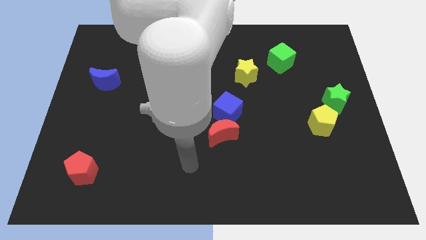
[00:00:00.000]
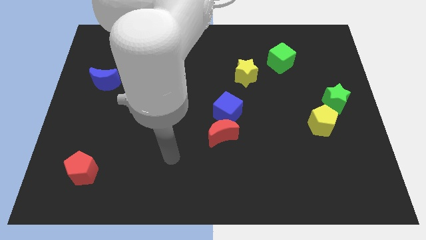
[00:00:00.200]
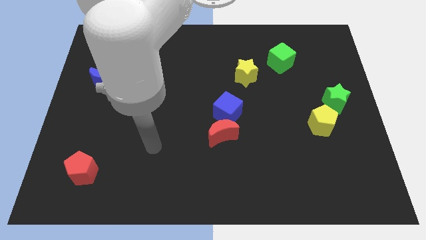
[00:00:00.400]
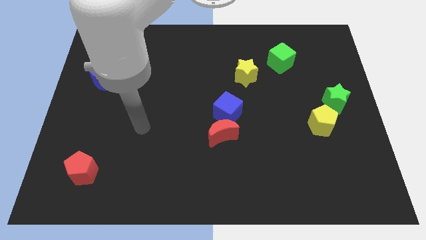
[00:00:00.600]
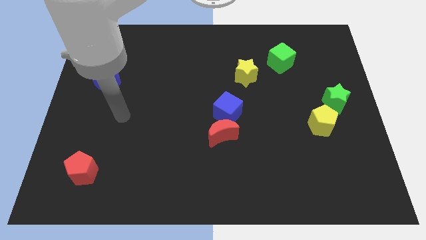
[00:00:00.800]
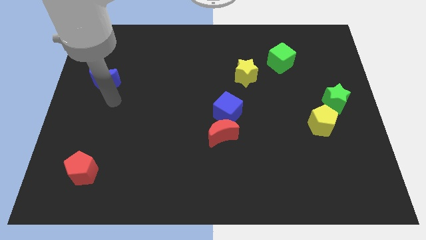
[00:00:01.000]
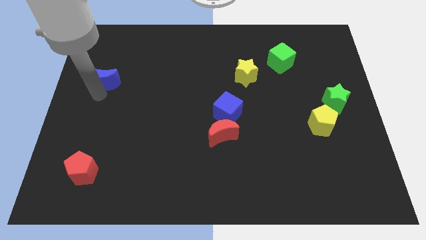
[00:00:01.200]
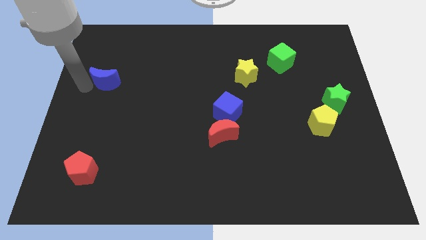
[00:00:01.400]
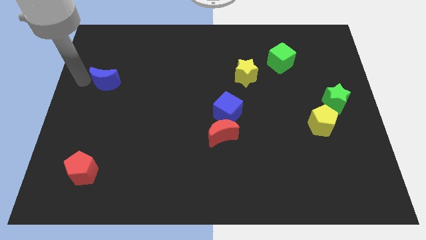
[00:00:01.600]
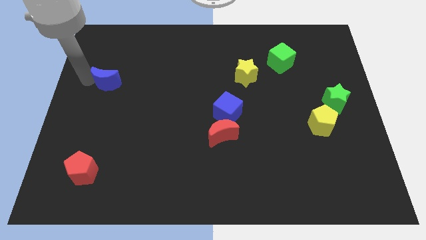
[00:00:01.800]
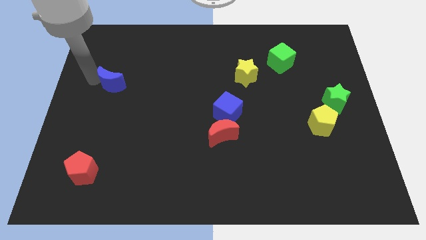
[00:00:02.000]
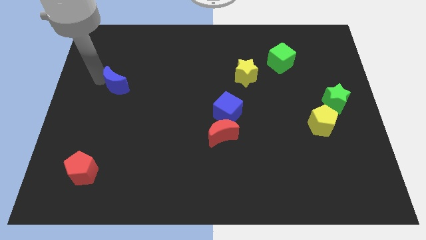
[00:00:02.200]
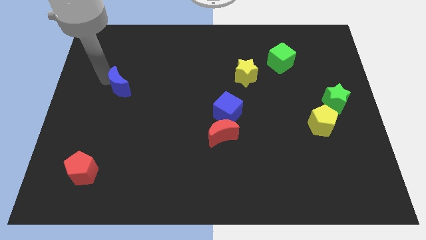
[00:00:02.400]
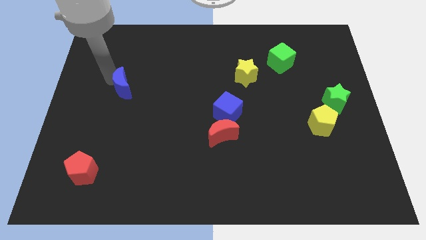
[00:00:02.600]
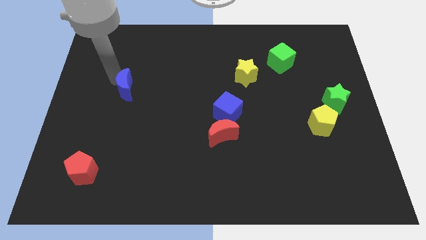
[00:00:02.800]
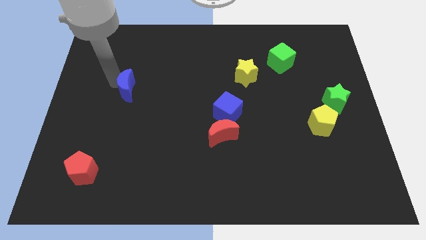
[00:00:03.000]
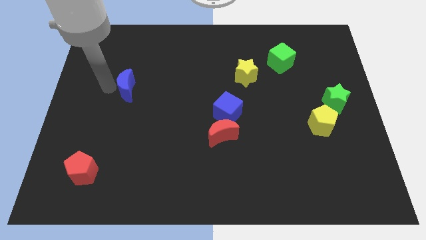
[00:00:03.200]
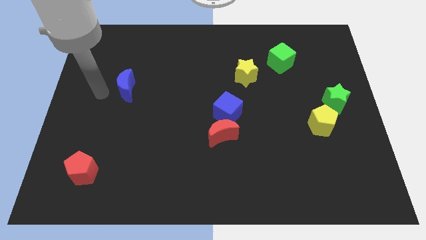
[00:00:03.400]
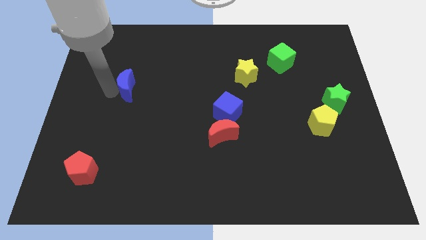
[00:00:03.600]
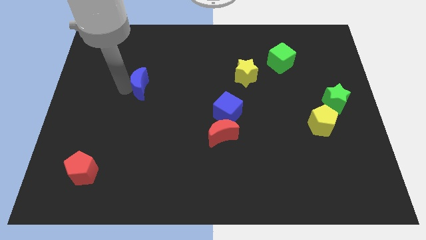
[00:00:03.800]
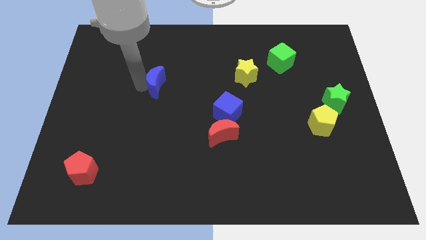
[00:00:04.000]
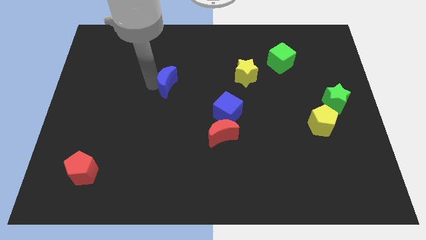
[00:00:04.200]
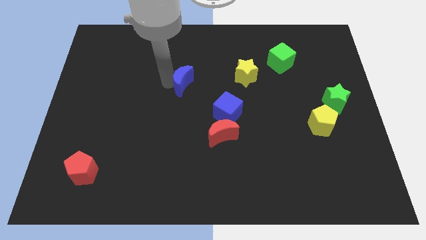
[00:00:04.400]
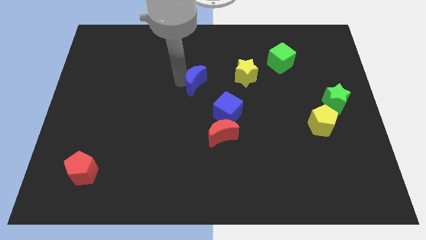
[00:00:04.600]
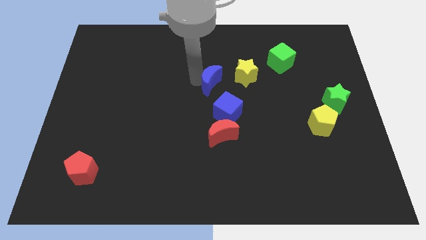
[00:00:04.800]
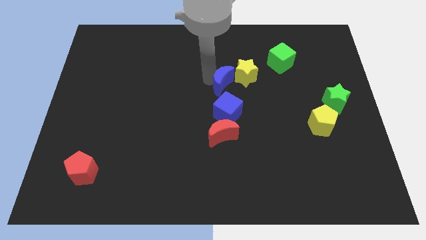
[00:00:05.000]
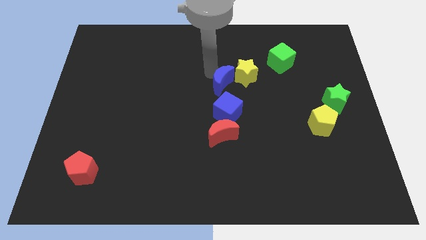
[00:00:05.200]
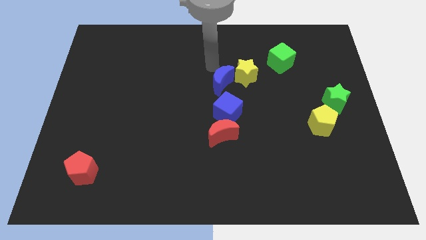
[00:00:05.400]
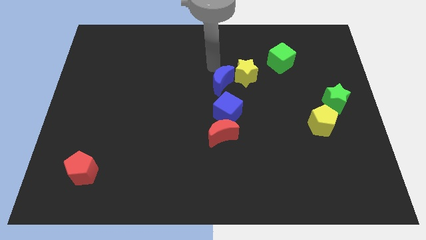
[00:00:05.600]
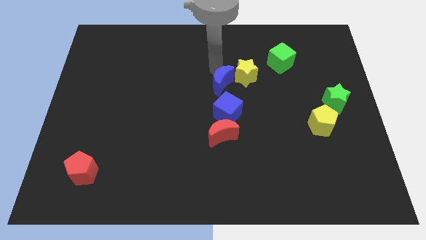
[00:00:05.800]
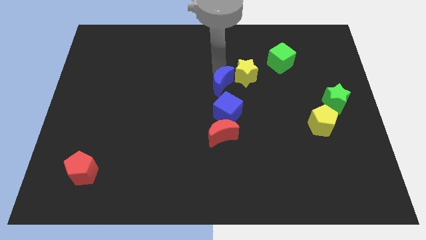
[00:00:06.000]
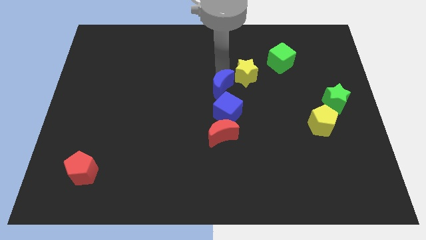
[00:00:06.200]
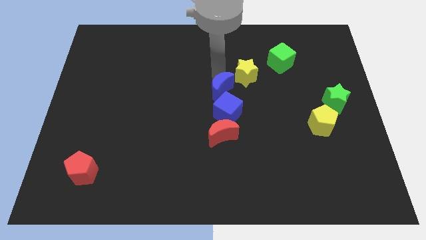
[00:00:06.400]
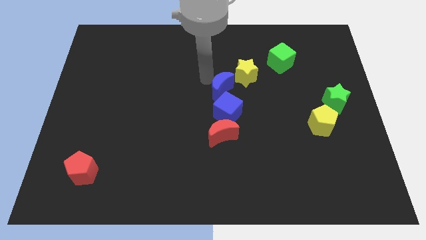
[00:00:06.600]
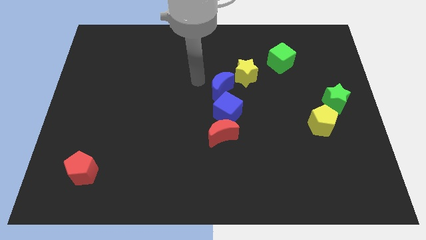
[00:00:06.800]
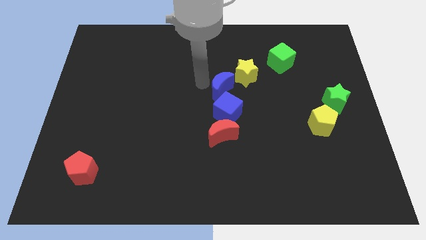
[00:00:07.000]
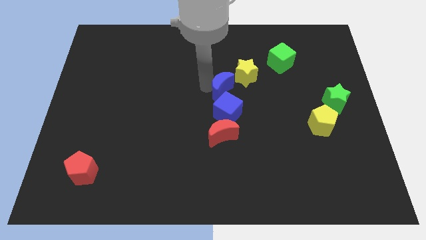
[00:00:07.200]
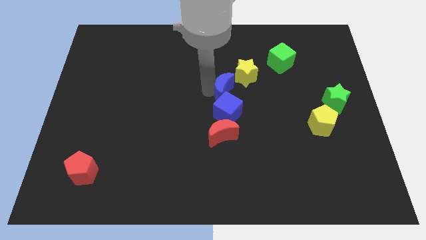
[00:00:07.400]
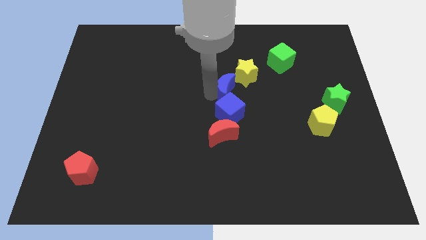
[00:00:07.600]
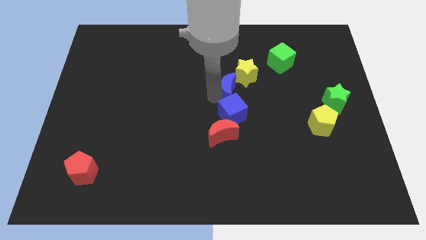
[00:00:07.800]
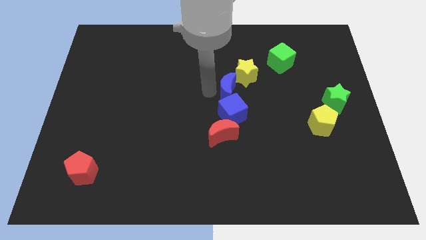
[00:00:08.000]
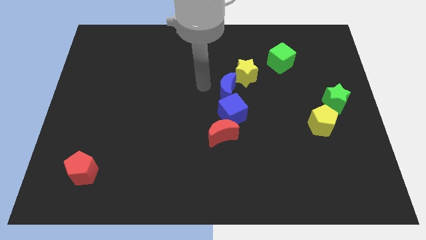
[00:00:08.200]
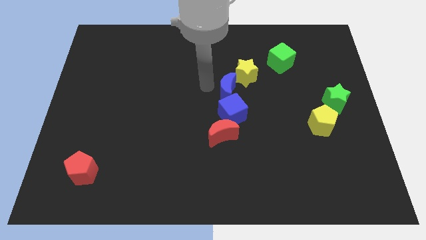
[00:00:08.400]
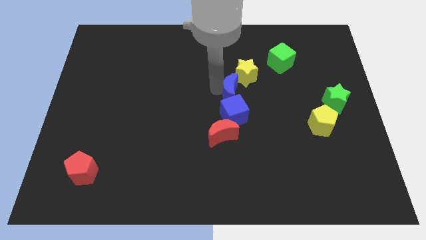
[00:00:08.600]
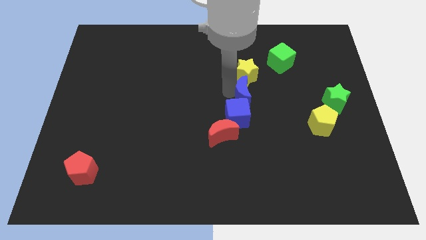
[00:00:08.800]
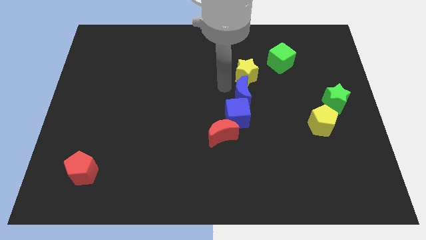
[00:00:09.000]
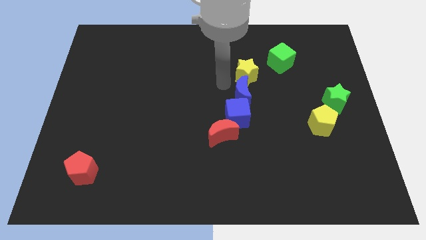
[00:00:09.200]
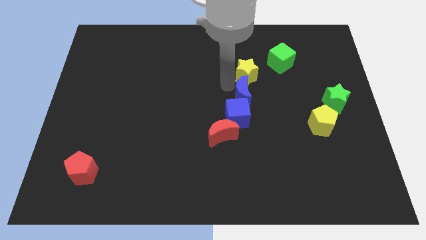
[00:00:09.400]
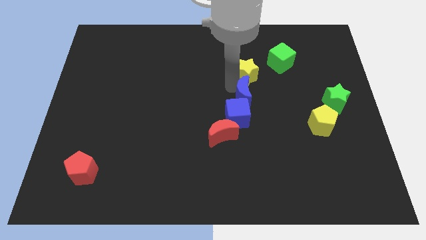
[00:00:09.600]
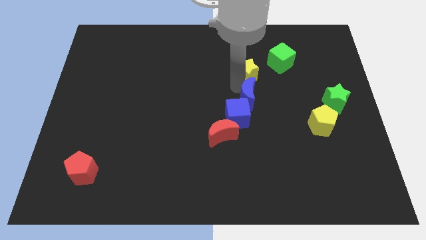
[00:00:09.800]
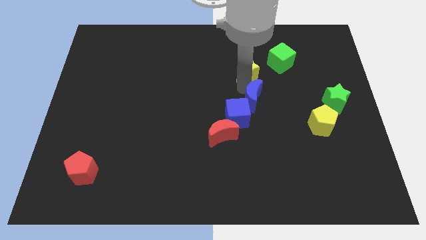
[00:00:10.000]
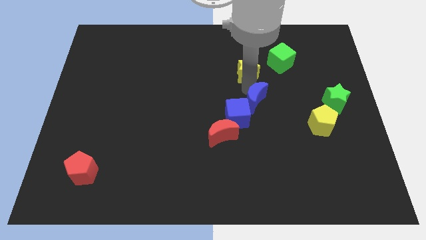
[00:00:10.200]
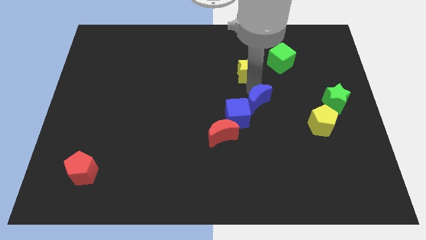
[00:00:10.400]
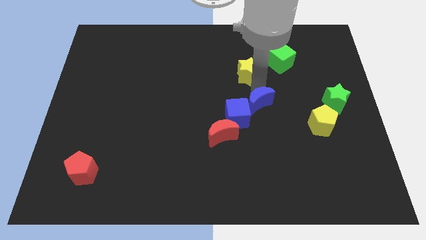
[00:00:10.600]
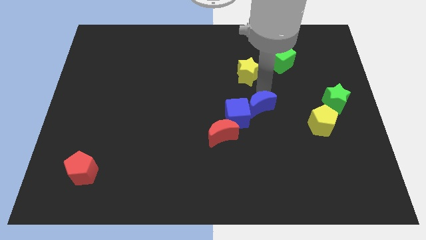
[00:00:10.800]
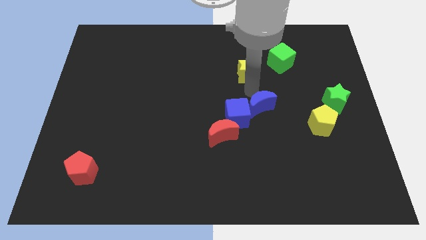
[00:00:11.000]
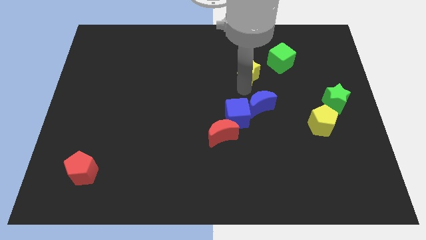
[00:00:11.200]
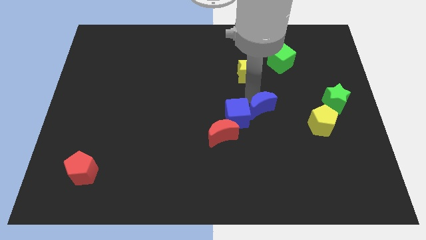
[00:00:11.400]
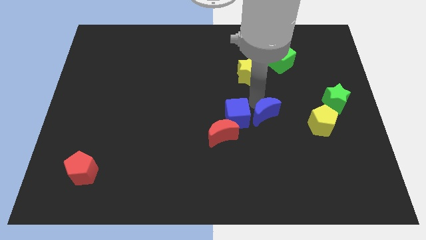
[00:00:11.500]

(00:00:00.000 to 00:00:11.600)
slide the blue moon to the left side of the yellow pentagon

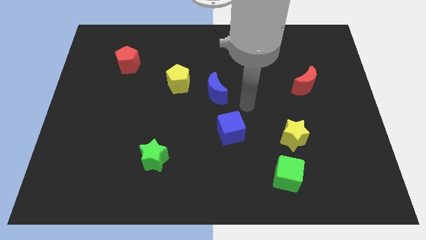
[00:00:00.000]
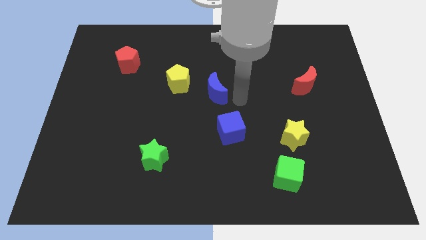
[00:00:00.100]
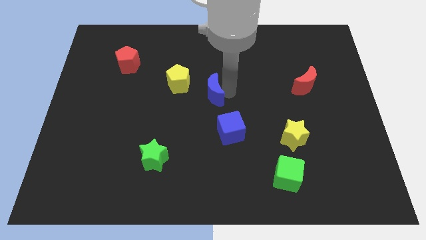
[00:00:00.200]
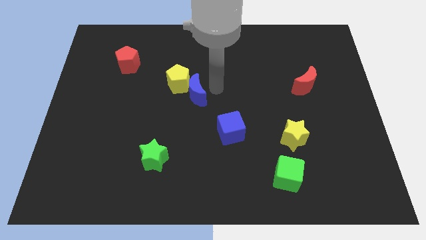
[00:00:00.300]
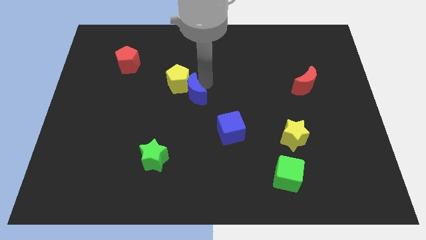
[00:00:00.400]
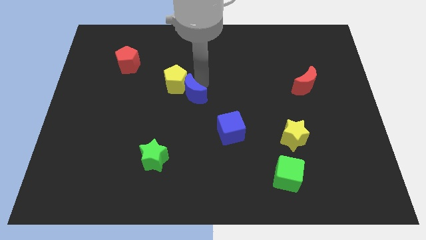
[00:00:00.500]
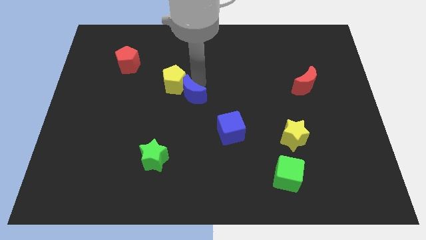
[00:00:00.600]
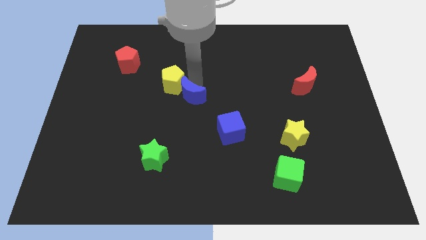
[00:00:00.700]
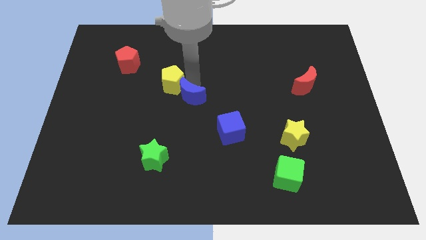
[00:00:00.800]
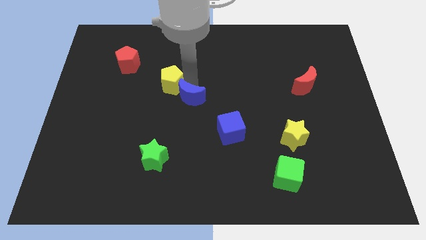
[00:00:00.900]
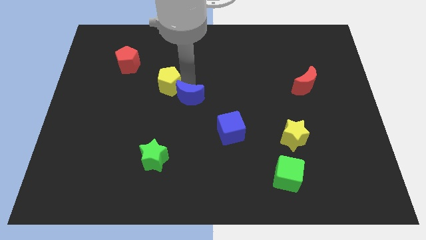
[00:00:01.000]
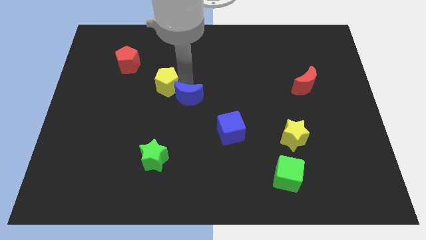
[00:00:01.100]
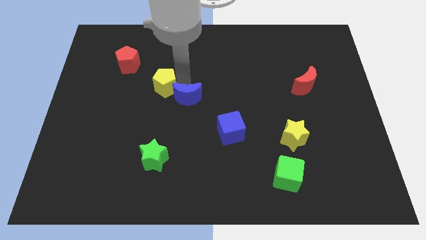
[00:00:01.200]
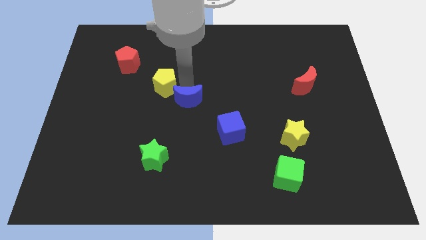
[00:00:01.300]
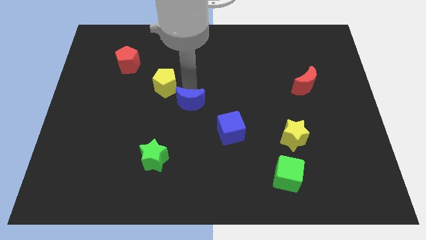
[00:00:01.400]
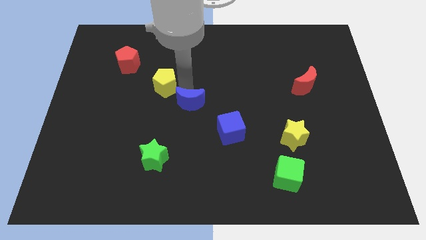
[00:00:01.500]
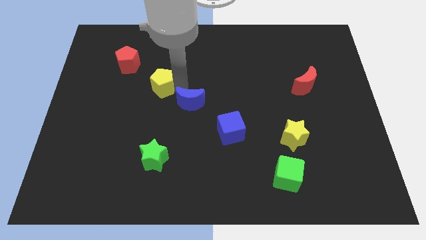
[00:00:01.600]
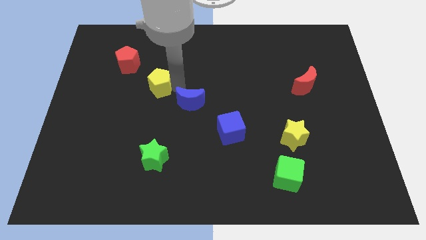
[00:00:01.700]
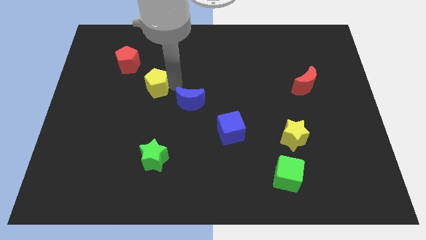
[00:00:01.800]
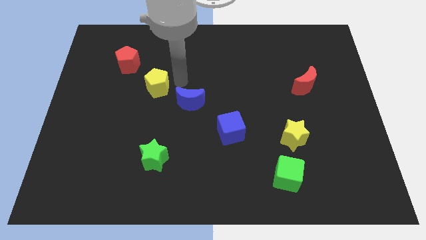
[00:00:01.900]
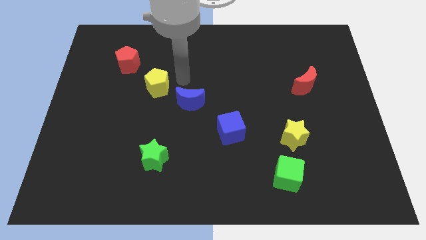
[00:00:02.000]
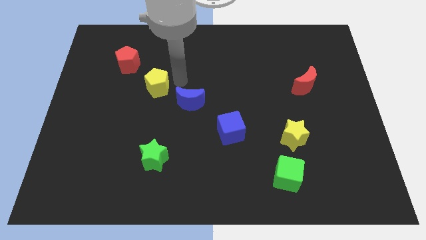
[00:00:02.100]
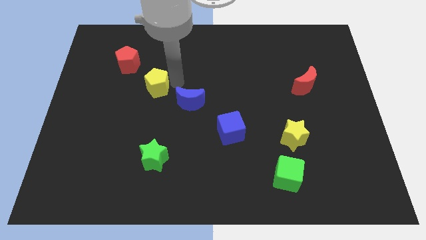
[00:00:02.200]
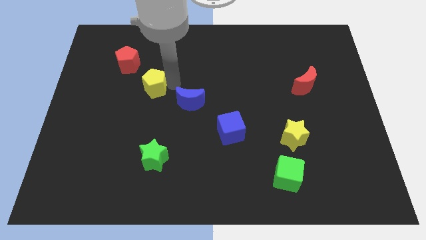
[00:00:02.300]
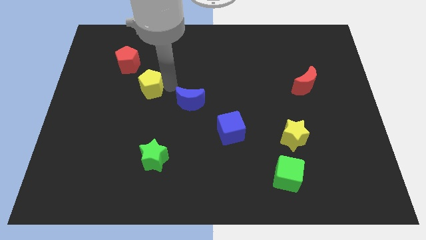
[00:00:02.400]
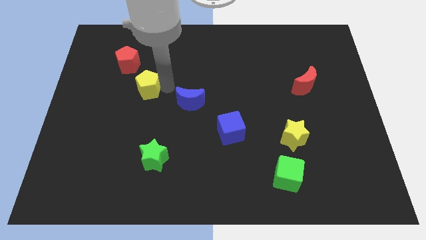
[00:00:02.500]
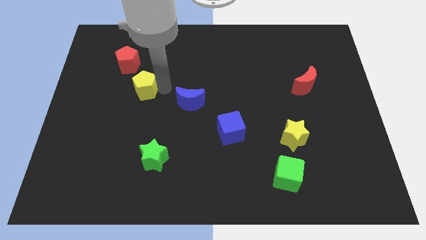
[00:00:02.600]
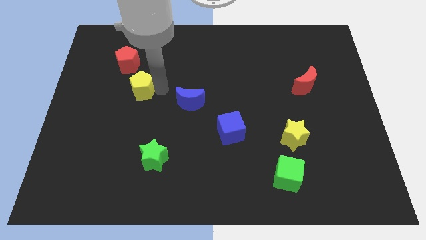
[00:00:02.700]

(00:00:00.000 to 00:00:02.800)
slide the yellow pentagon to the bottom of the red pentagon
